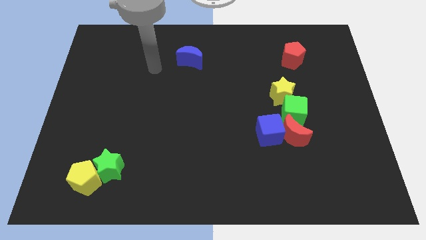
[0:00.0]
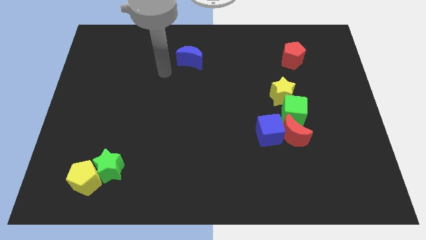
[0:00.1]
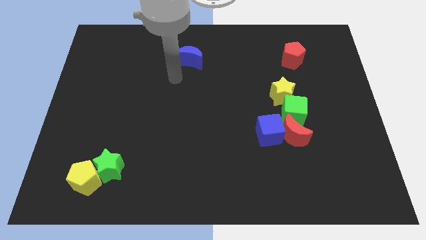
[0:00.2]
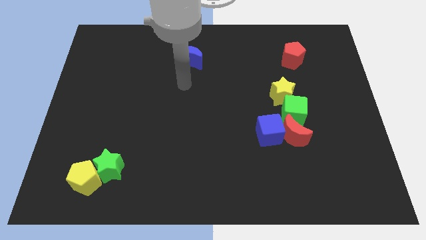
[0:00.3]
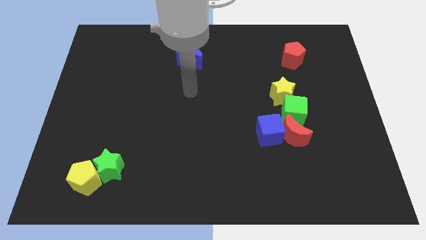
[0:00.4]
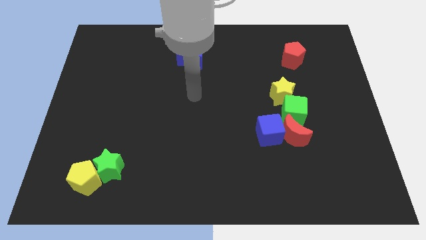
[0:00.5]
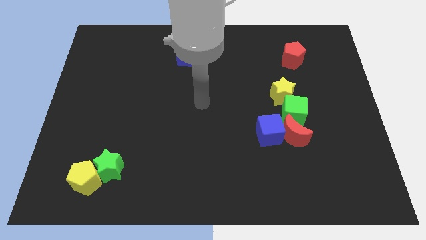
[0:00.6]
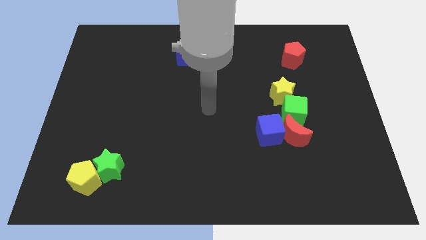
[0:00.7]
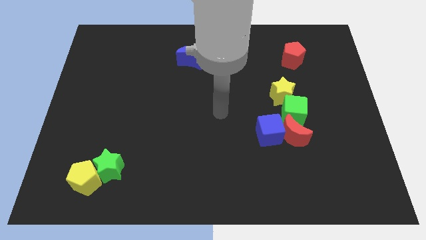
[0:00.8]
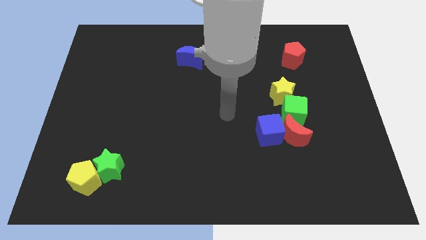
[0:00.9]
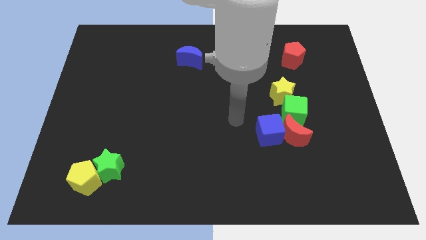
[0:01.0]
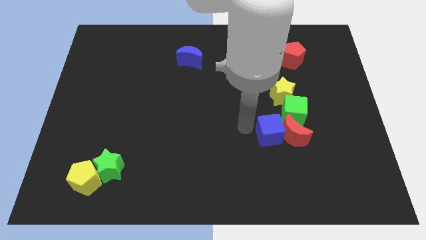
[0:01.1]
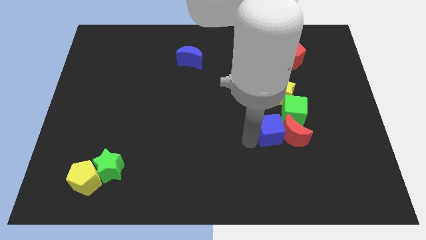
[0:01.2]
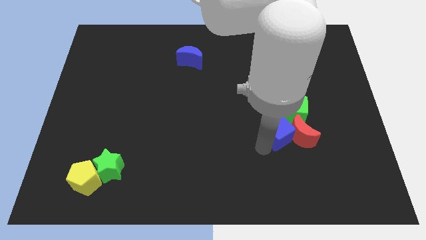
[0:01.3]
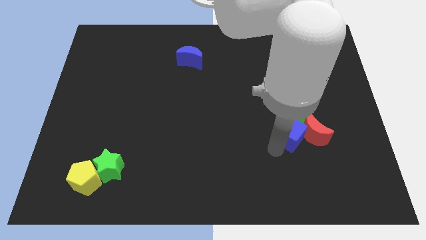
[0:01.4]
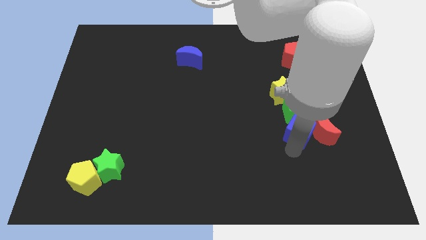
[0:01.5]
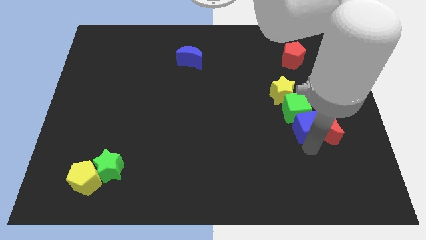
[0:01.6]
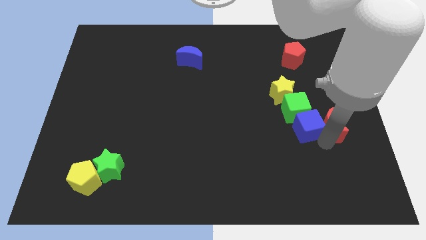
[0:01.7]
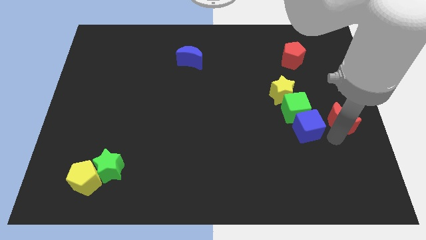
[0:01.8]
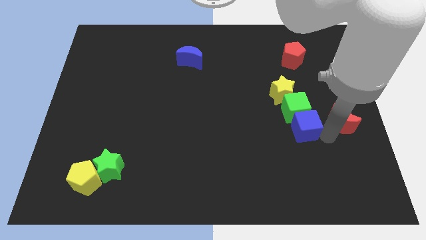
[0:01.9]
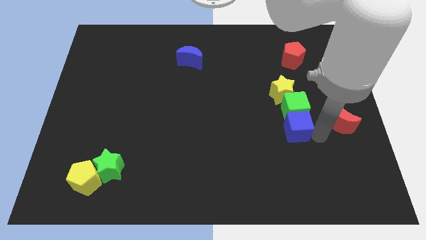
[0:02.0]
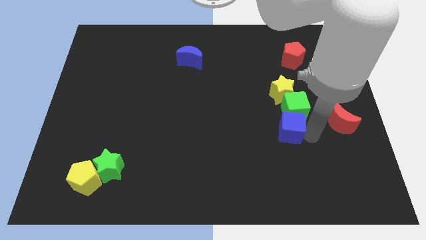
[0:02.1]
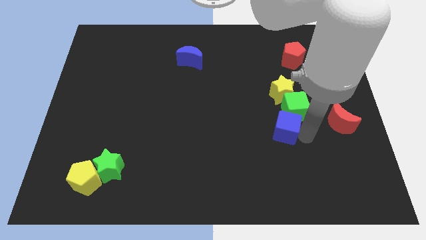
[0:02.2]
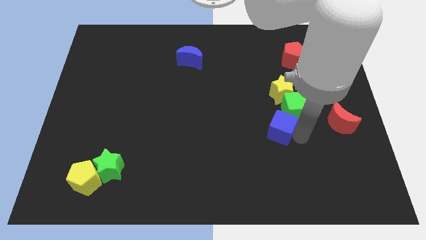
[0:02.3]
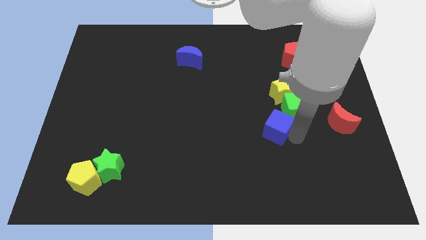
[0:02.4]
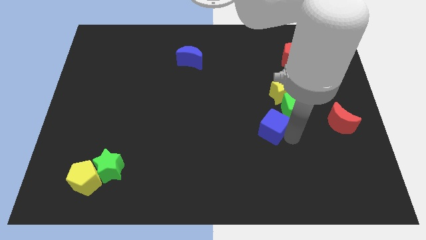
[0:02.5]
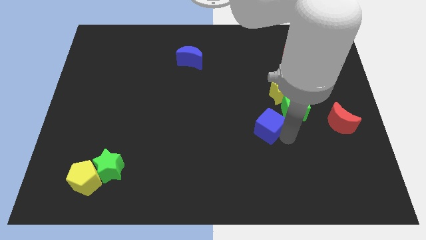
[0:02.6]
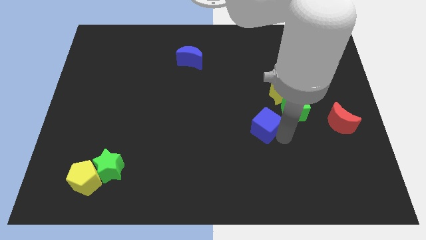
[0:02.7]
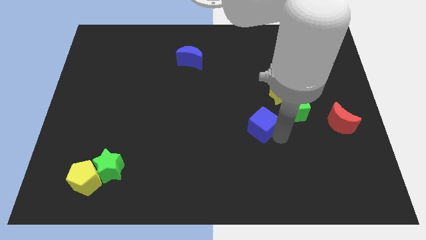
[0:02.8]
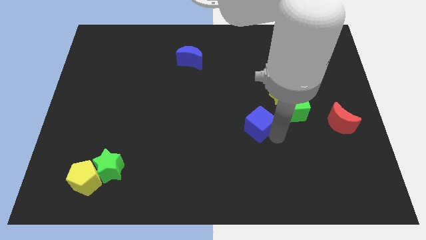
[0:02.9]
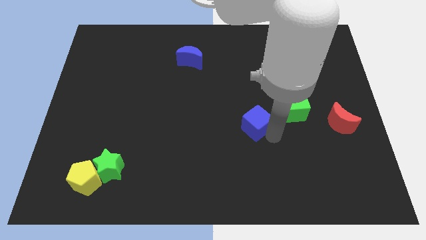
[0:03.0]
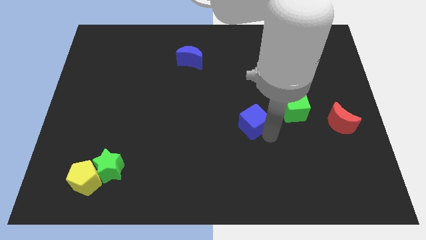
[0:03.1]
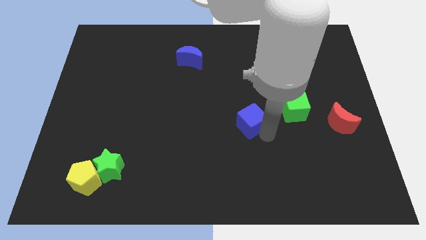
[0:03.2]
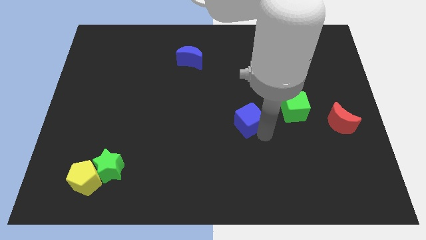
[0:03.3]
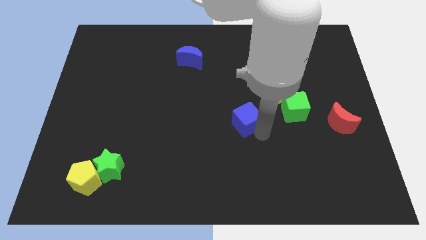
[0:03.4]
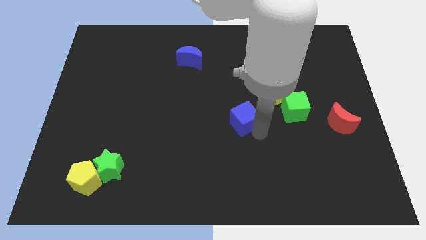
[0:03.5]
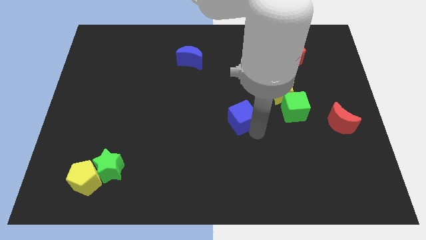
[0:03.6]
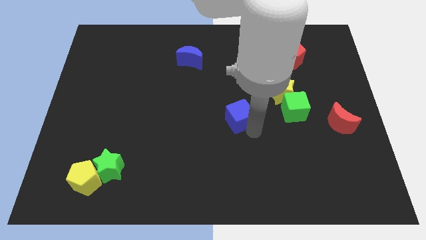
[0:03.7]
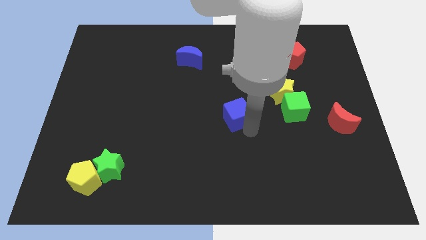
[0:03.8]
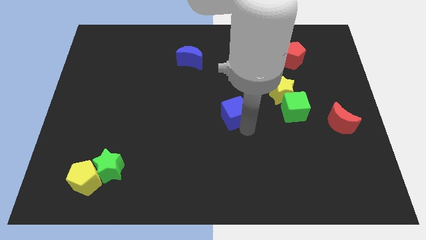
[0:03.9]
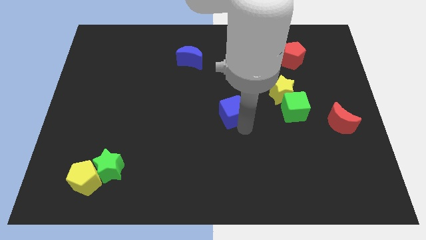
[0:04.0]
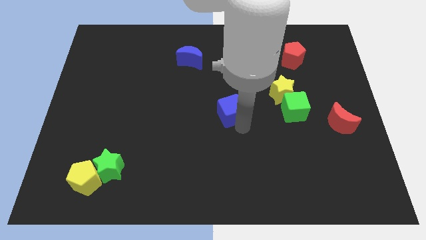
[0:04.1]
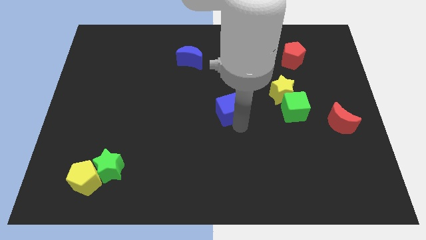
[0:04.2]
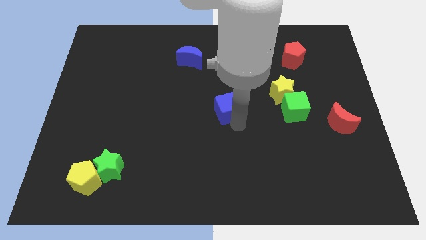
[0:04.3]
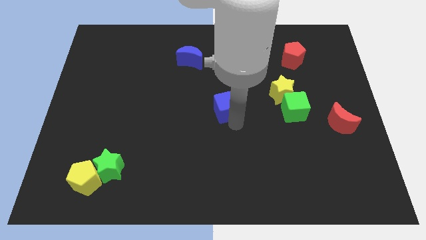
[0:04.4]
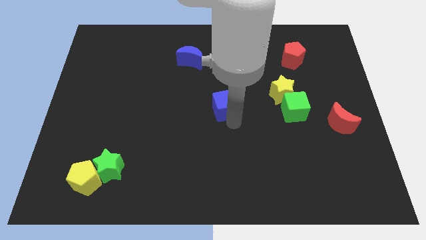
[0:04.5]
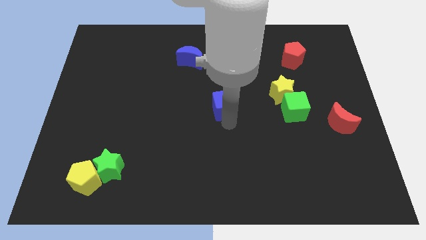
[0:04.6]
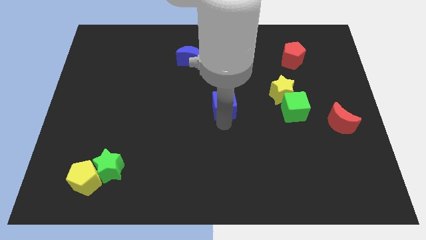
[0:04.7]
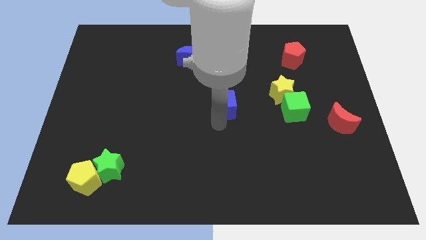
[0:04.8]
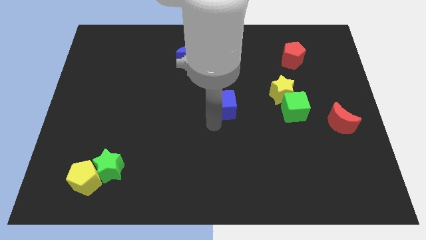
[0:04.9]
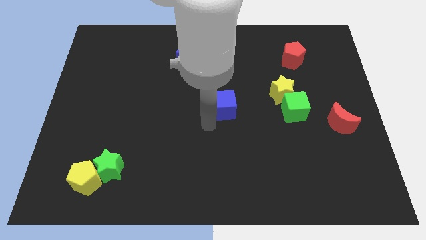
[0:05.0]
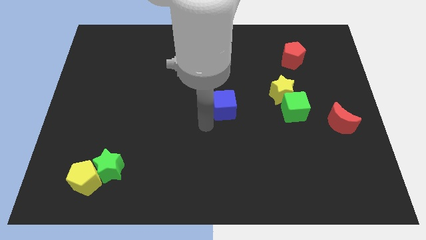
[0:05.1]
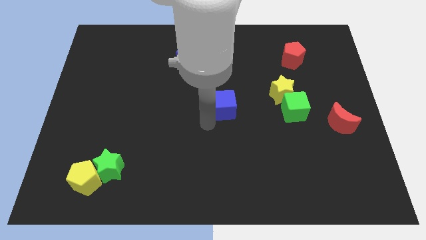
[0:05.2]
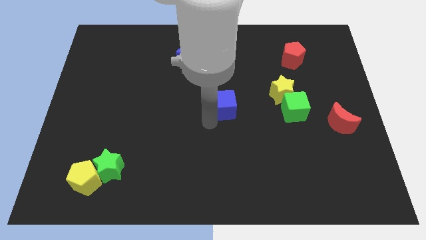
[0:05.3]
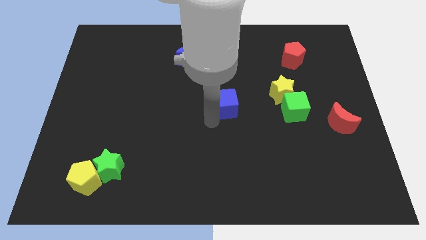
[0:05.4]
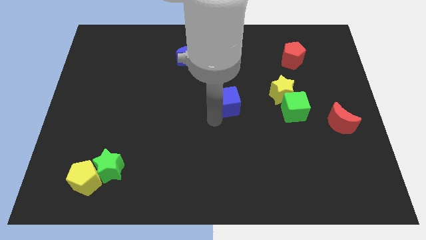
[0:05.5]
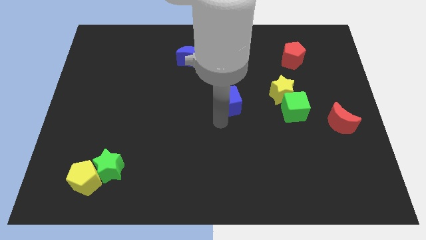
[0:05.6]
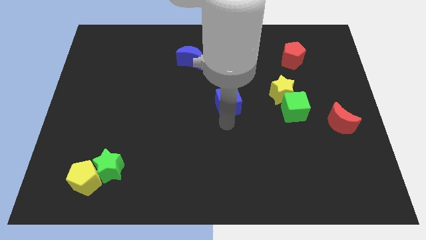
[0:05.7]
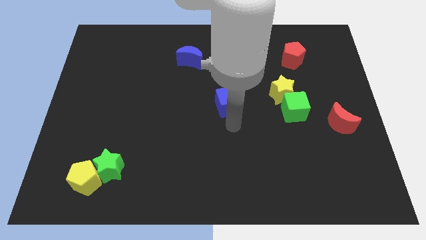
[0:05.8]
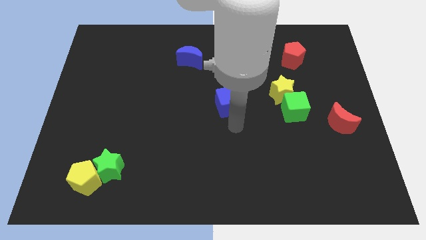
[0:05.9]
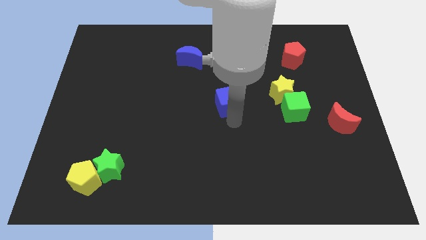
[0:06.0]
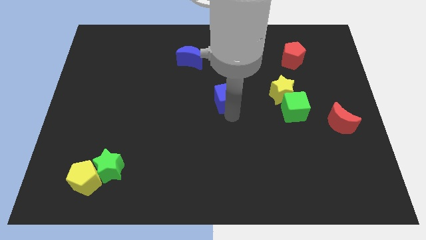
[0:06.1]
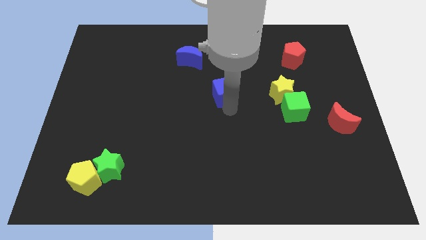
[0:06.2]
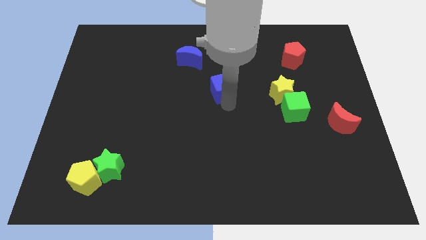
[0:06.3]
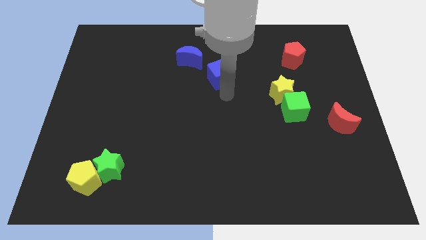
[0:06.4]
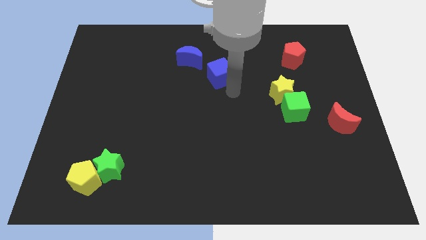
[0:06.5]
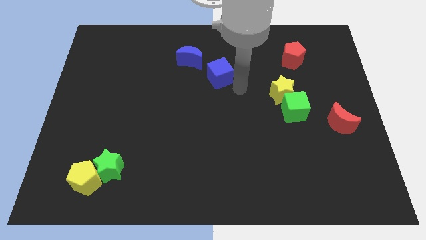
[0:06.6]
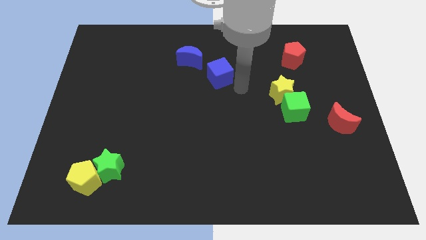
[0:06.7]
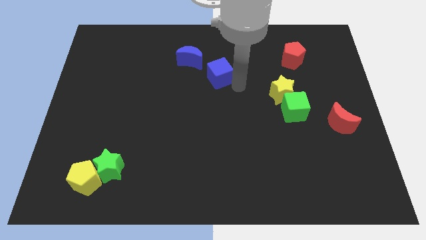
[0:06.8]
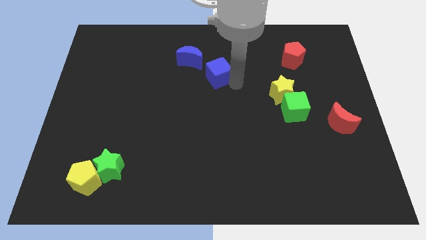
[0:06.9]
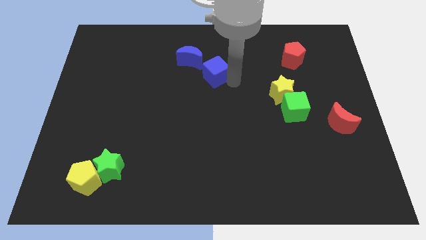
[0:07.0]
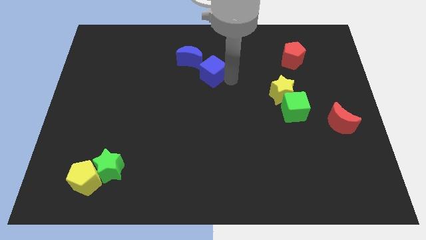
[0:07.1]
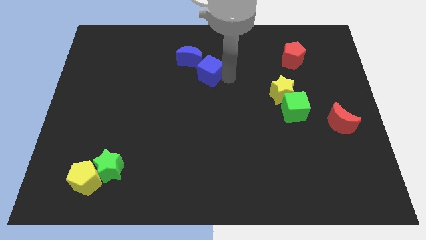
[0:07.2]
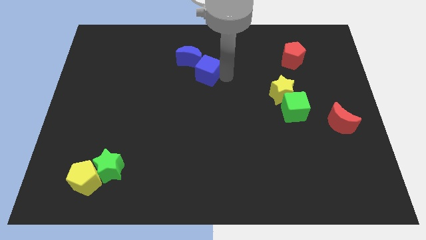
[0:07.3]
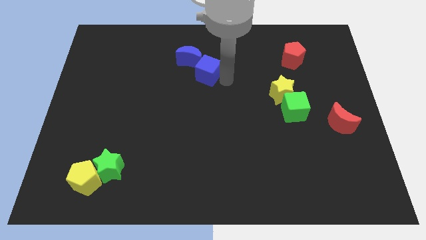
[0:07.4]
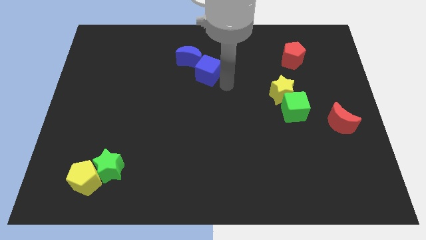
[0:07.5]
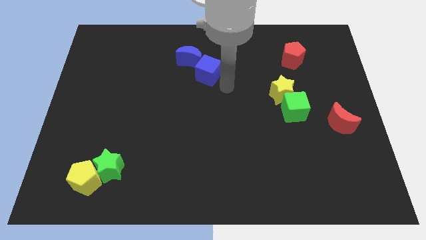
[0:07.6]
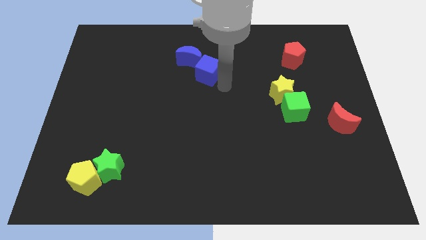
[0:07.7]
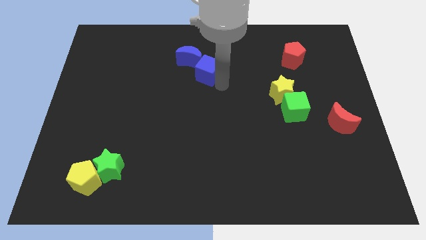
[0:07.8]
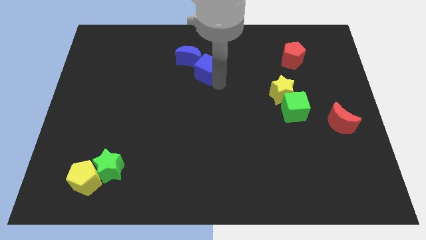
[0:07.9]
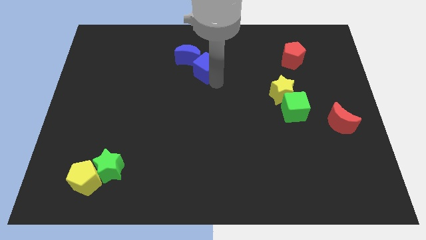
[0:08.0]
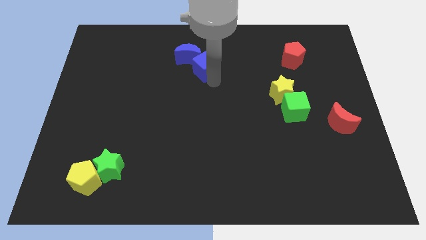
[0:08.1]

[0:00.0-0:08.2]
push the blue cube next to the blue moon
